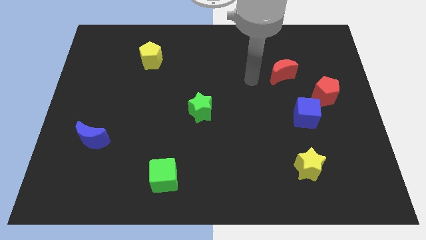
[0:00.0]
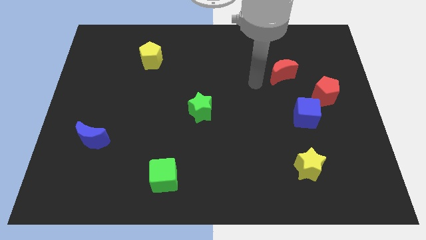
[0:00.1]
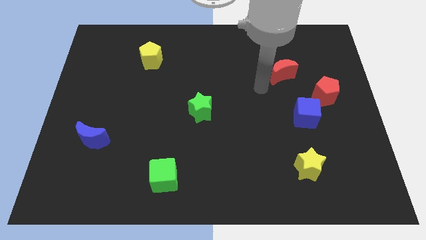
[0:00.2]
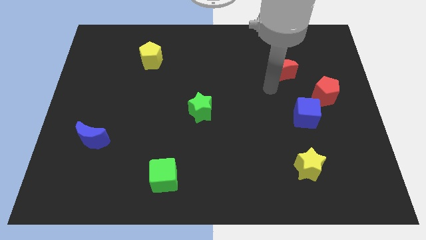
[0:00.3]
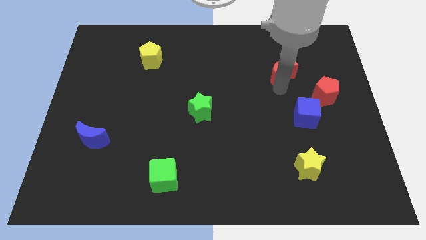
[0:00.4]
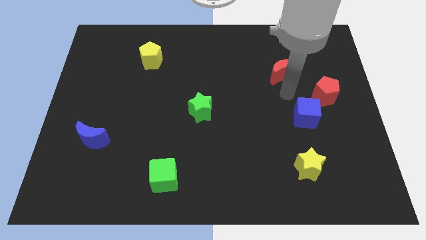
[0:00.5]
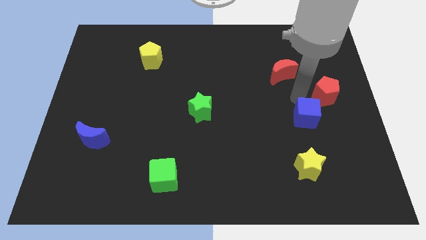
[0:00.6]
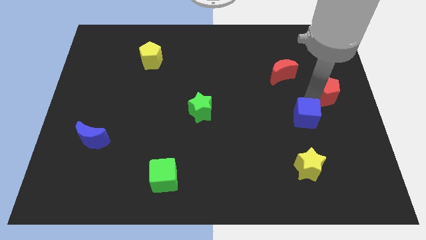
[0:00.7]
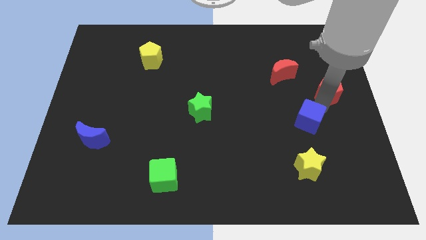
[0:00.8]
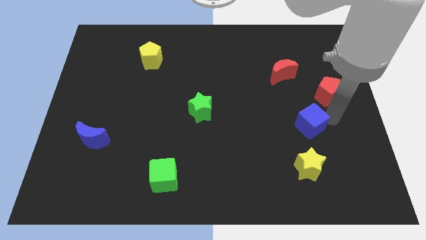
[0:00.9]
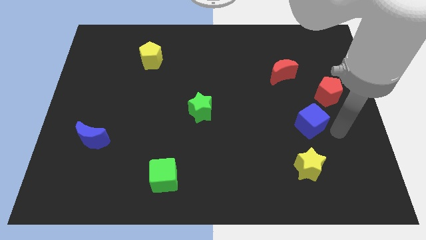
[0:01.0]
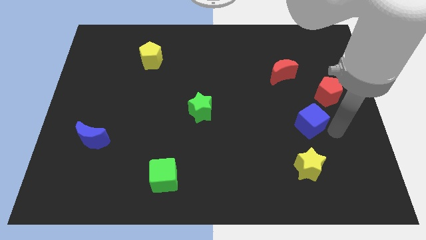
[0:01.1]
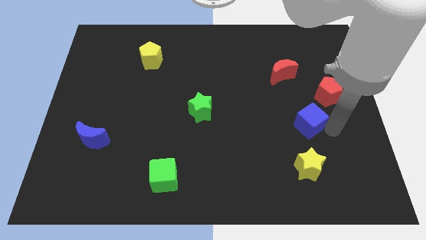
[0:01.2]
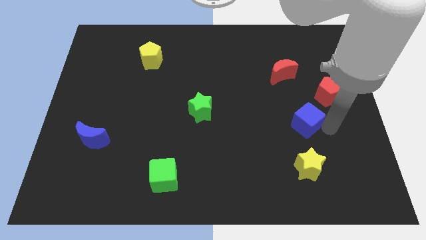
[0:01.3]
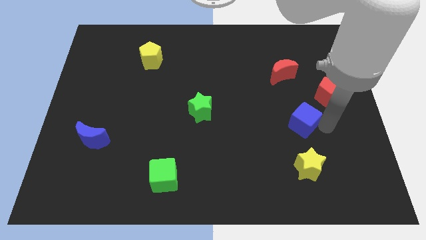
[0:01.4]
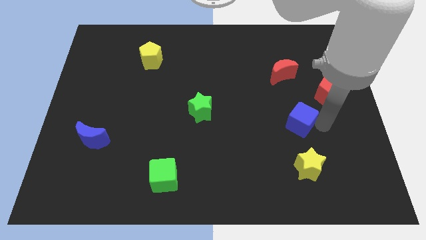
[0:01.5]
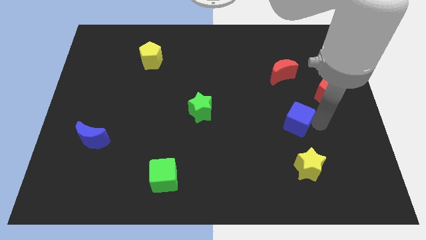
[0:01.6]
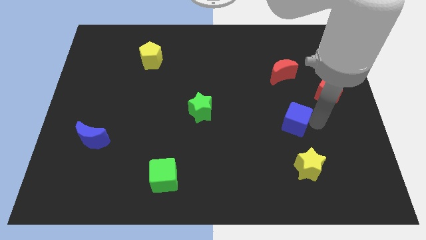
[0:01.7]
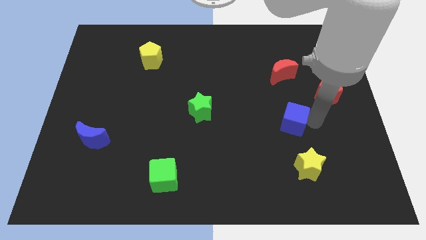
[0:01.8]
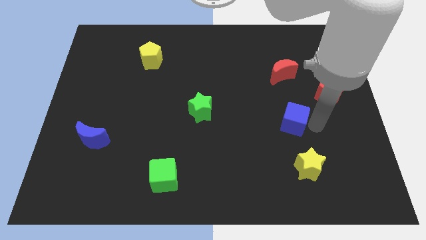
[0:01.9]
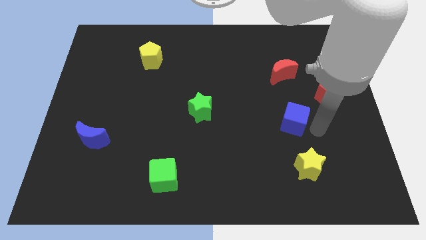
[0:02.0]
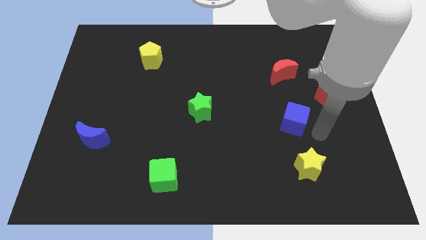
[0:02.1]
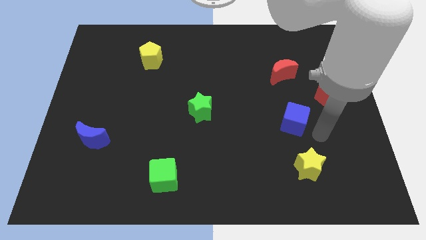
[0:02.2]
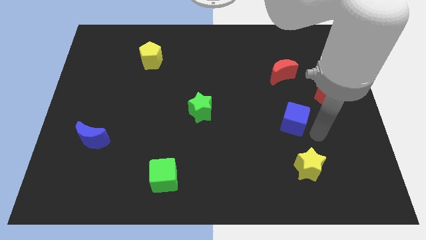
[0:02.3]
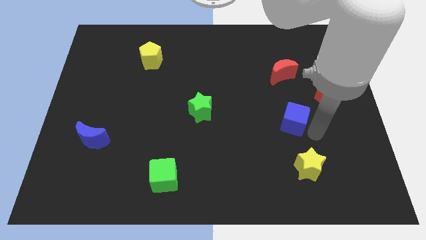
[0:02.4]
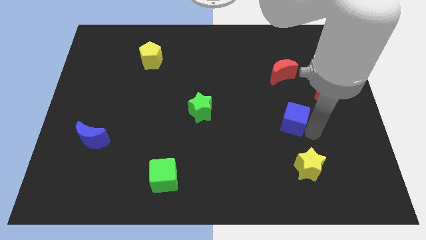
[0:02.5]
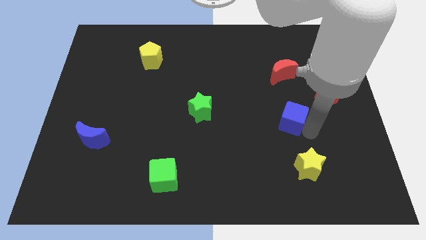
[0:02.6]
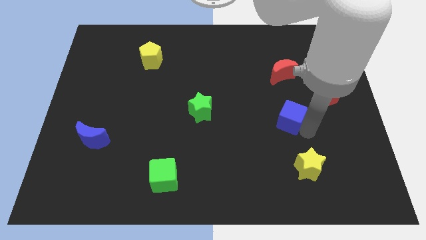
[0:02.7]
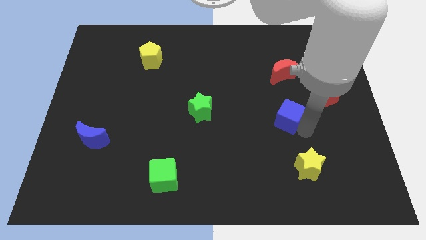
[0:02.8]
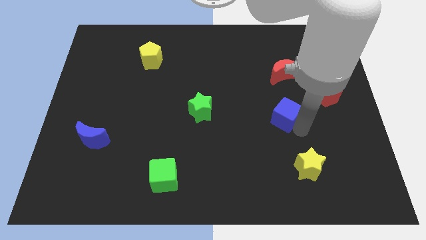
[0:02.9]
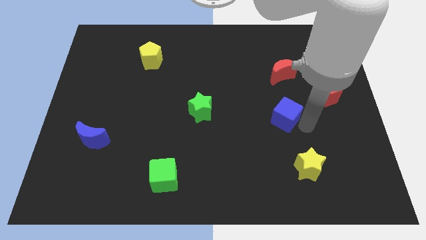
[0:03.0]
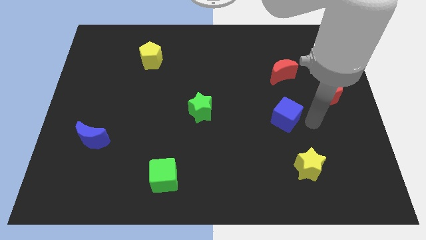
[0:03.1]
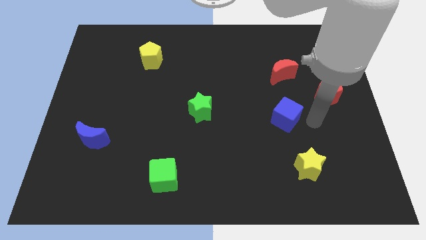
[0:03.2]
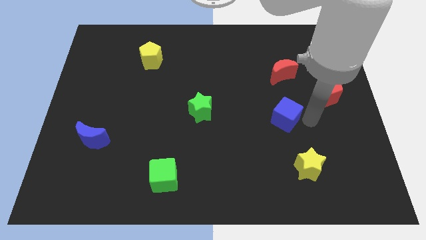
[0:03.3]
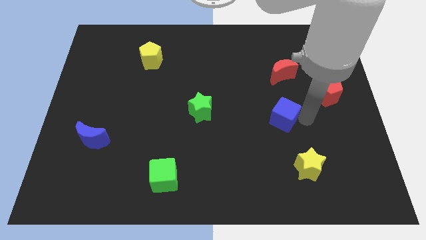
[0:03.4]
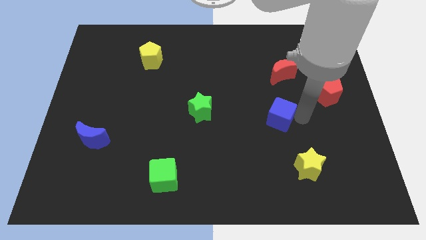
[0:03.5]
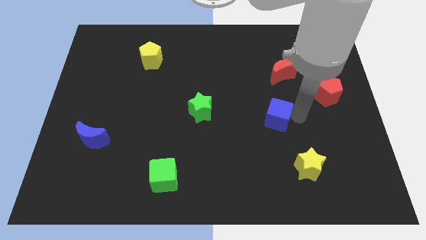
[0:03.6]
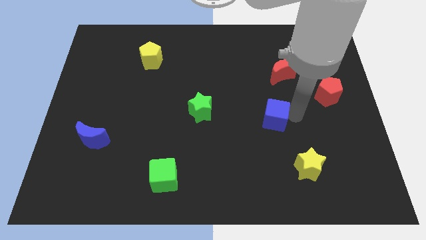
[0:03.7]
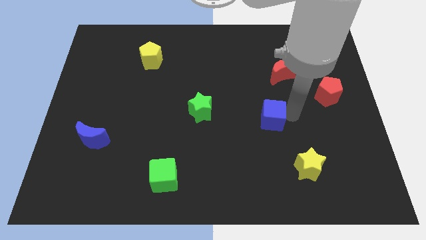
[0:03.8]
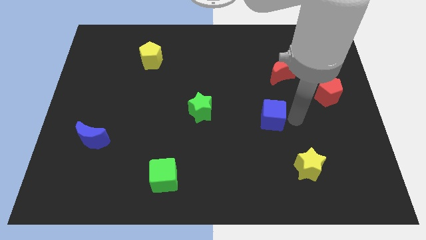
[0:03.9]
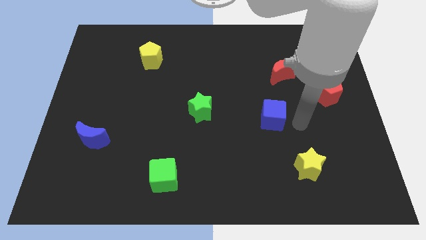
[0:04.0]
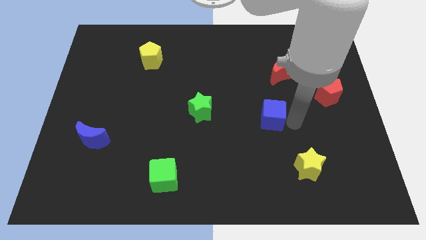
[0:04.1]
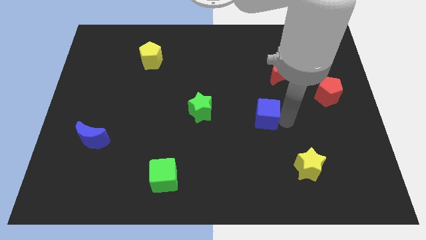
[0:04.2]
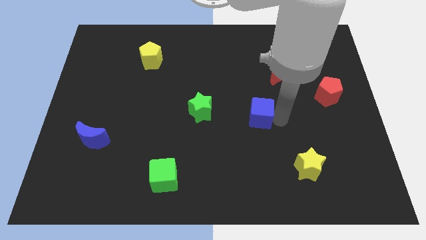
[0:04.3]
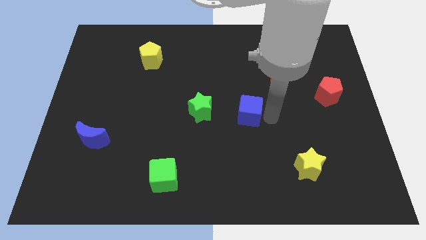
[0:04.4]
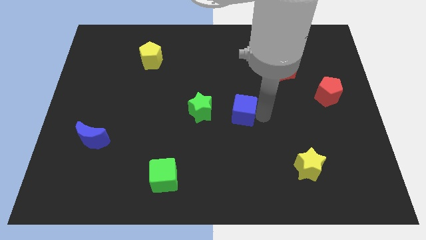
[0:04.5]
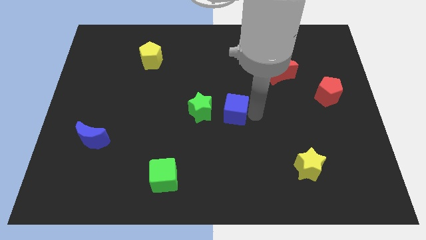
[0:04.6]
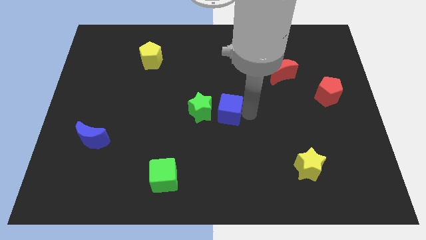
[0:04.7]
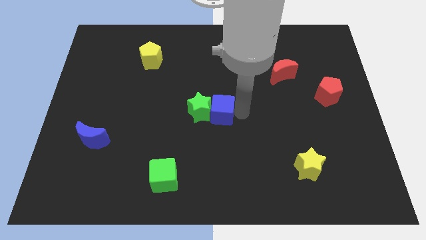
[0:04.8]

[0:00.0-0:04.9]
move the blue cube towards the green star

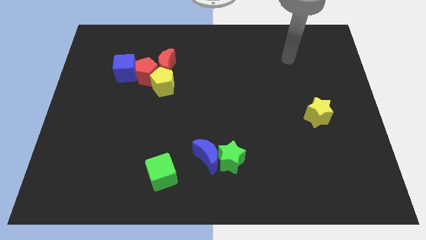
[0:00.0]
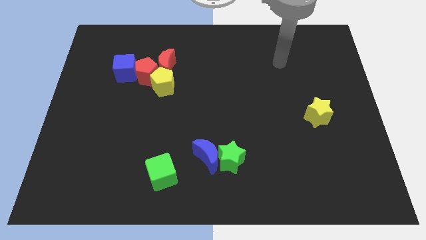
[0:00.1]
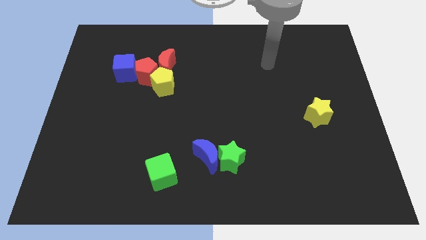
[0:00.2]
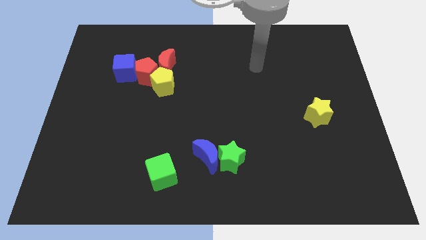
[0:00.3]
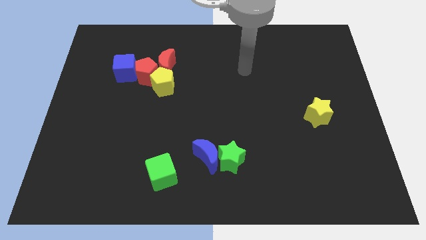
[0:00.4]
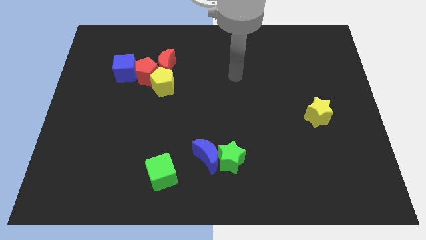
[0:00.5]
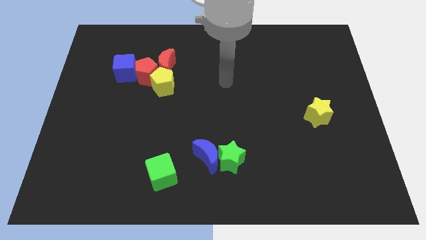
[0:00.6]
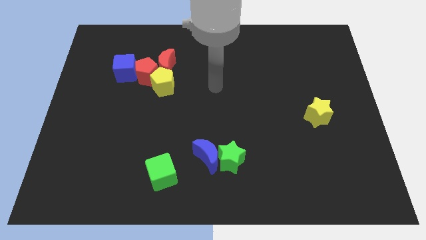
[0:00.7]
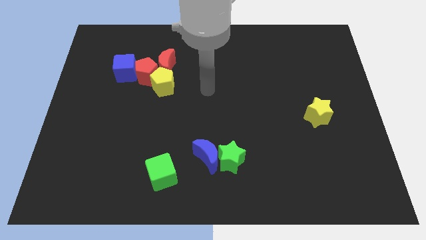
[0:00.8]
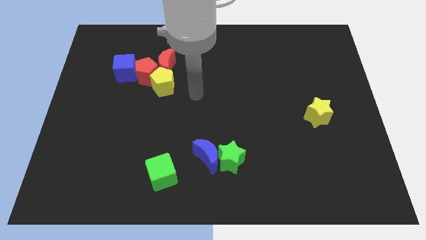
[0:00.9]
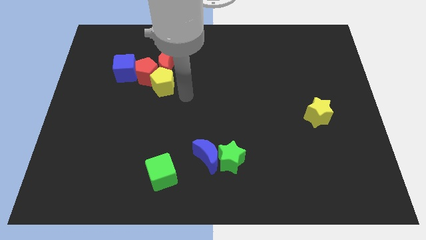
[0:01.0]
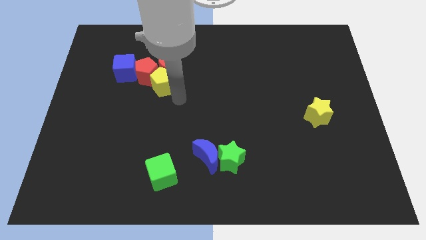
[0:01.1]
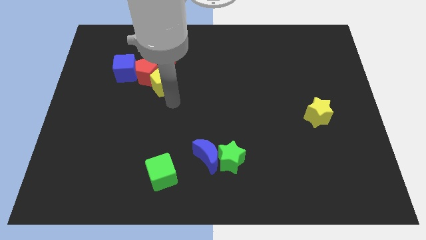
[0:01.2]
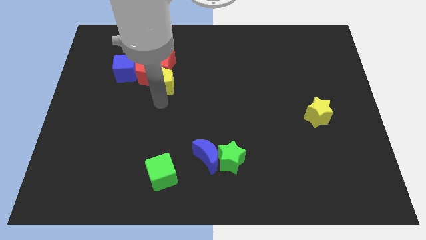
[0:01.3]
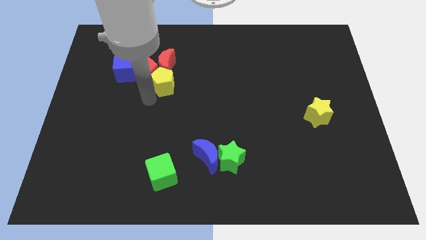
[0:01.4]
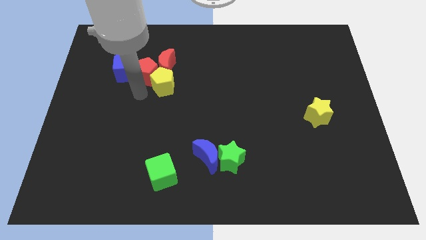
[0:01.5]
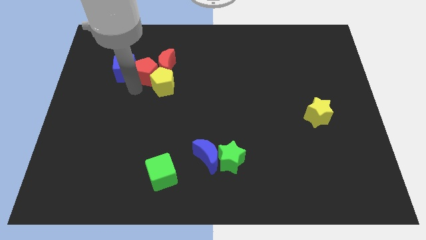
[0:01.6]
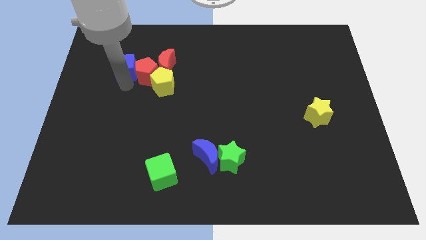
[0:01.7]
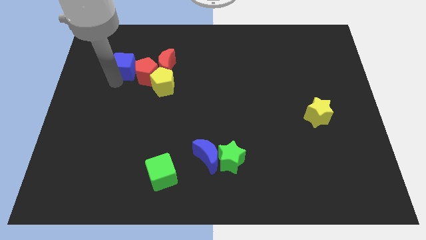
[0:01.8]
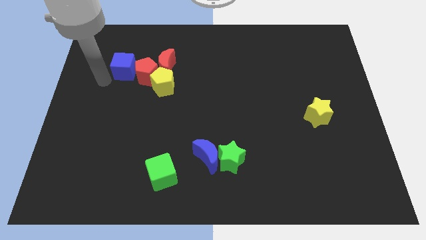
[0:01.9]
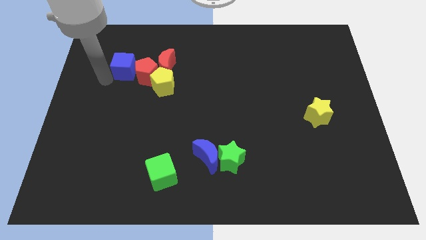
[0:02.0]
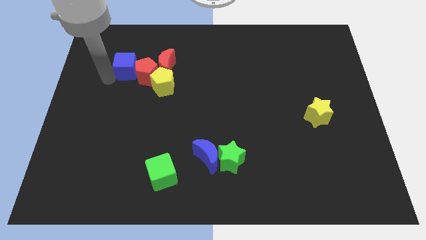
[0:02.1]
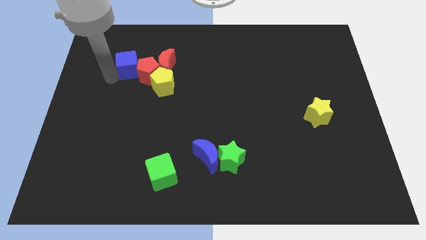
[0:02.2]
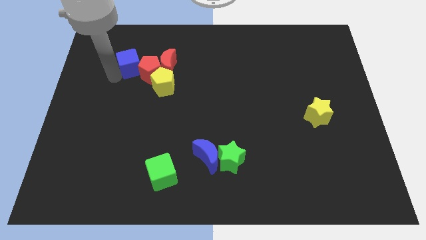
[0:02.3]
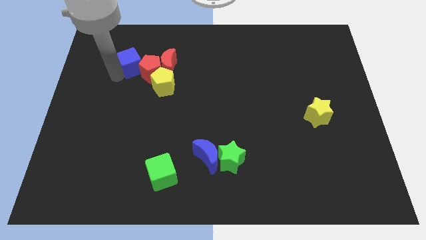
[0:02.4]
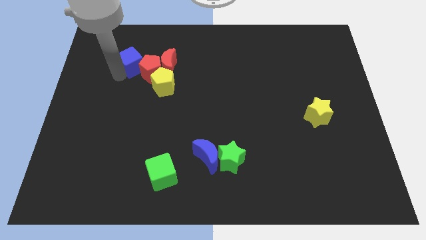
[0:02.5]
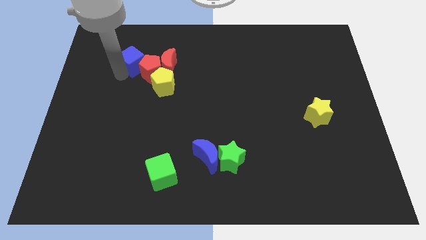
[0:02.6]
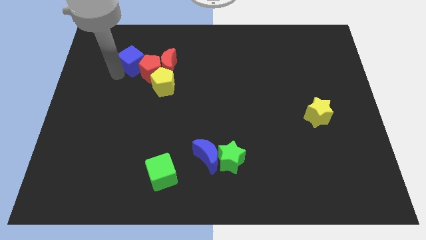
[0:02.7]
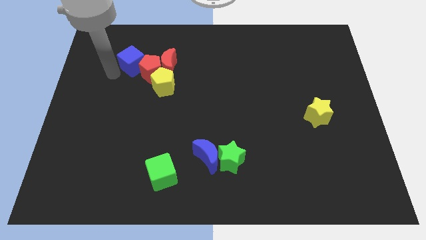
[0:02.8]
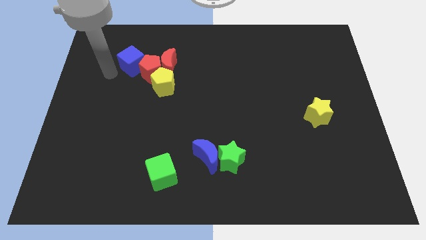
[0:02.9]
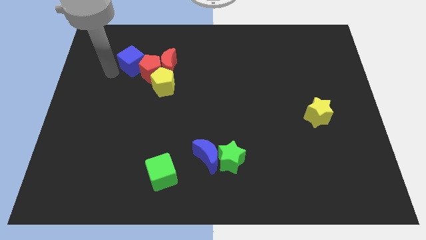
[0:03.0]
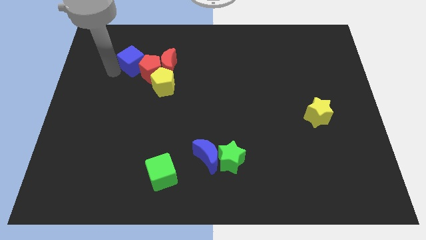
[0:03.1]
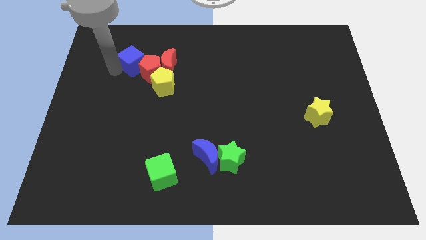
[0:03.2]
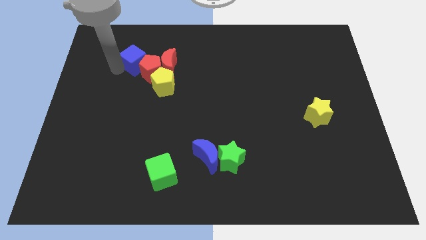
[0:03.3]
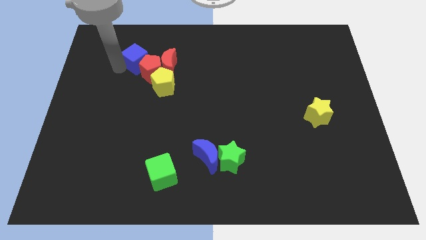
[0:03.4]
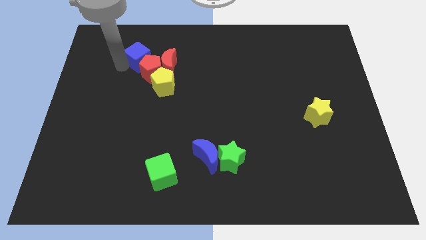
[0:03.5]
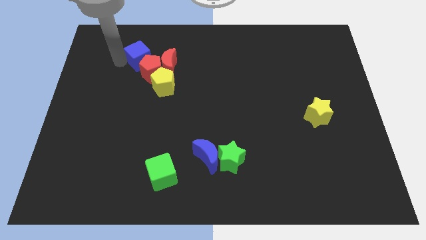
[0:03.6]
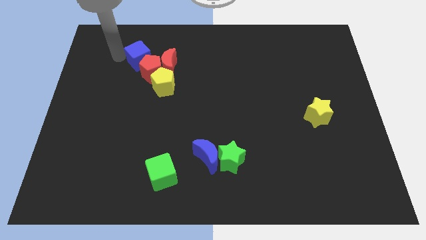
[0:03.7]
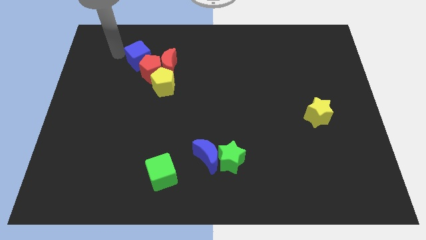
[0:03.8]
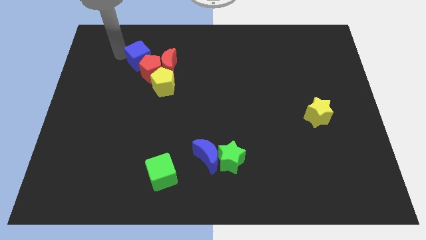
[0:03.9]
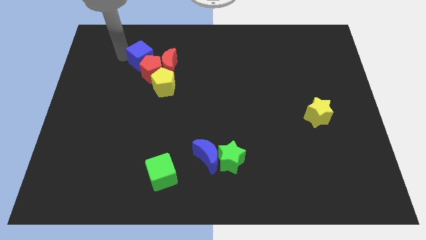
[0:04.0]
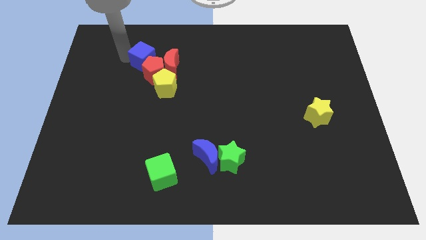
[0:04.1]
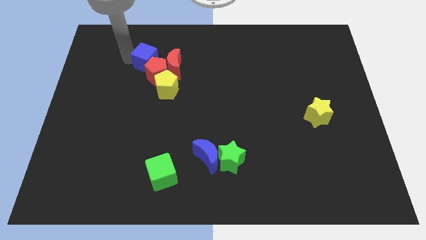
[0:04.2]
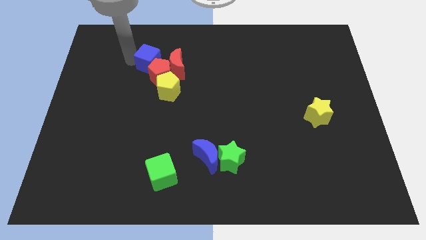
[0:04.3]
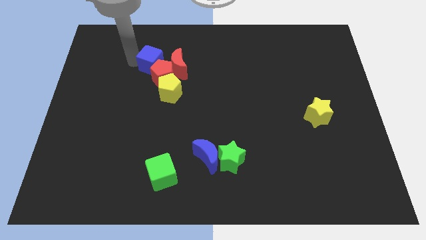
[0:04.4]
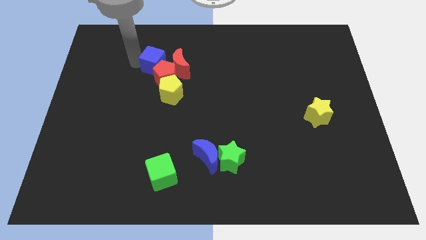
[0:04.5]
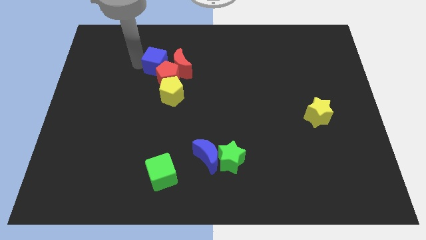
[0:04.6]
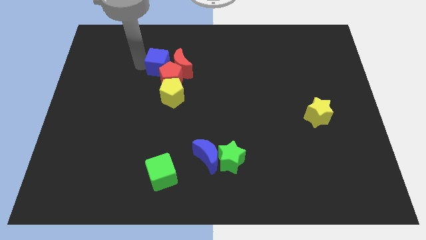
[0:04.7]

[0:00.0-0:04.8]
move the blue cube towards the red moon
